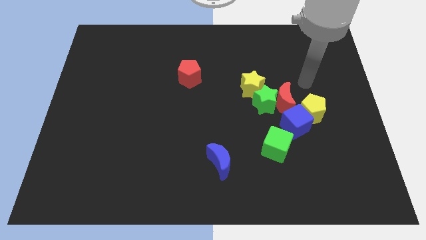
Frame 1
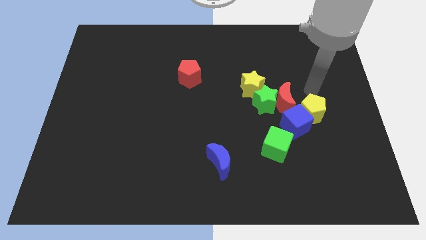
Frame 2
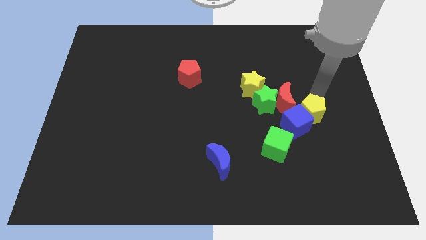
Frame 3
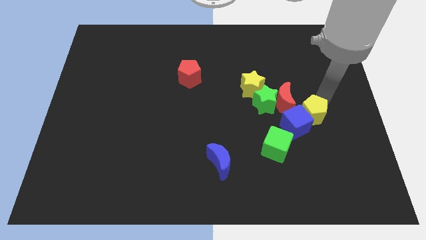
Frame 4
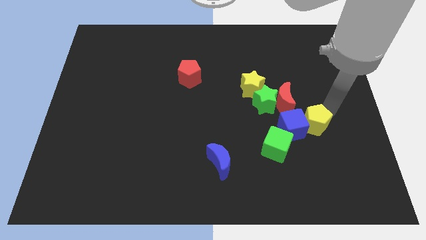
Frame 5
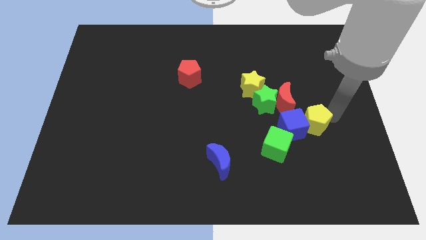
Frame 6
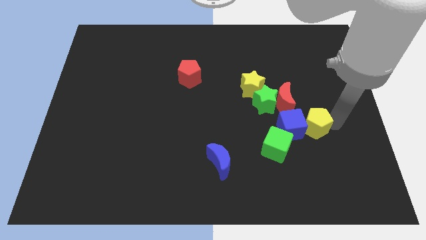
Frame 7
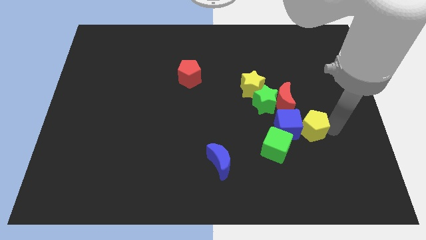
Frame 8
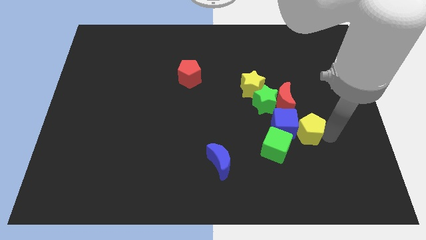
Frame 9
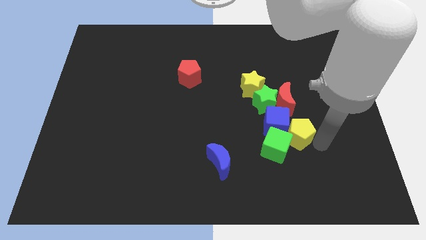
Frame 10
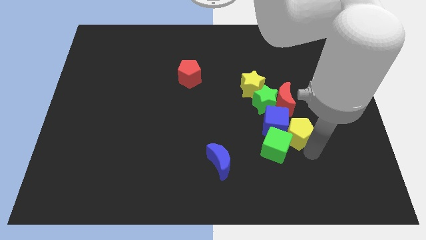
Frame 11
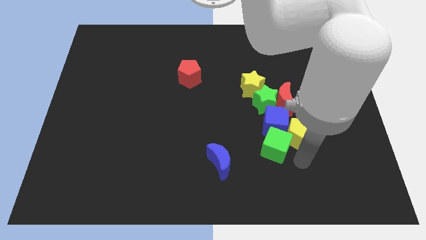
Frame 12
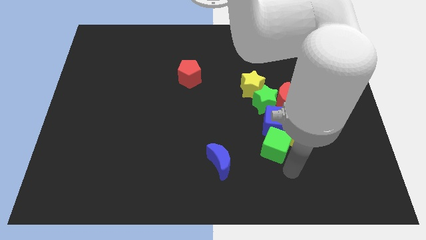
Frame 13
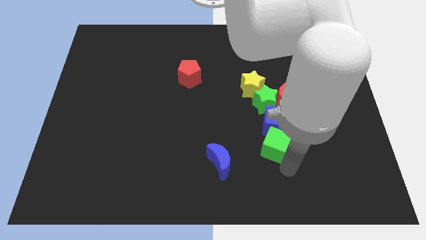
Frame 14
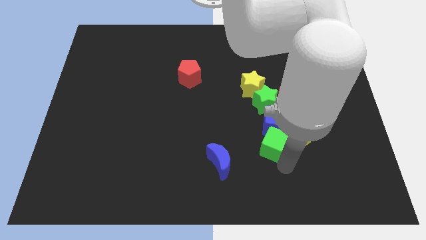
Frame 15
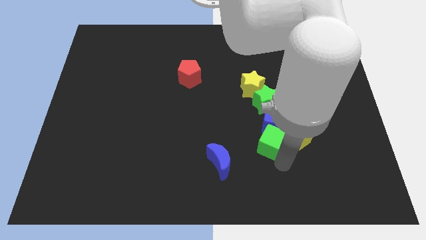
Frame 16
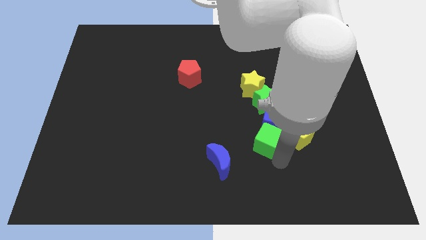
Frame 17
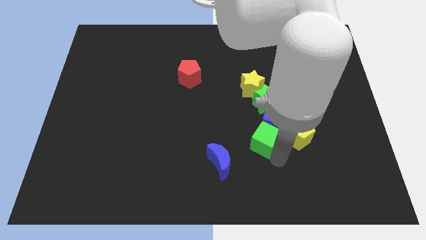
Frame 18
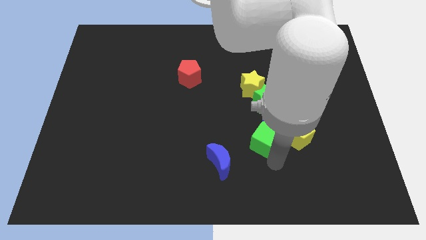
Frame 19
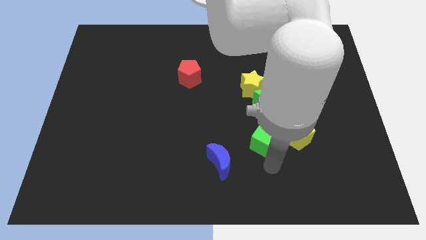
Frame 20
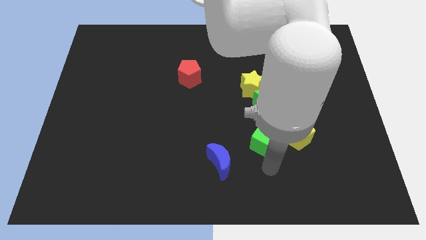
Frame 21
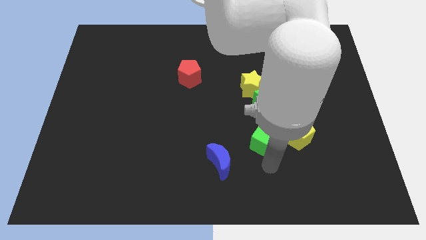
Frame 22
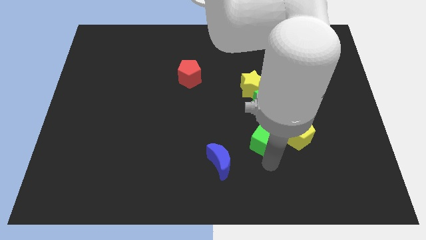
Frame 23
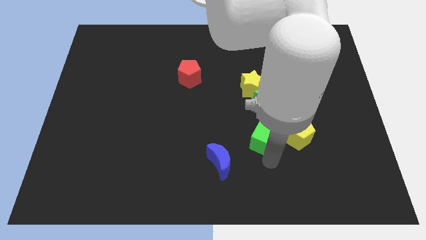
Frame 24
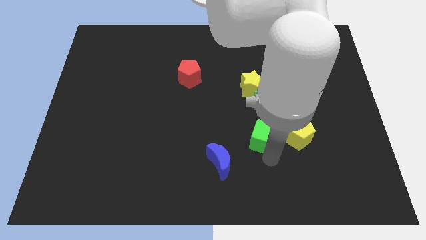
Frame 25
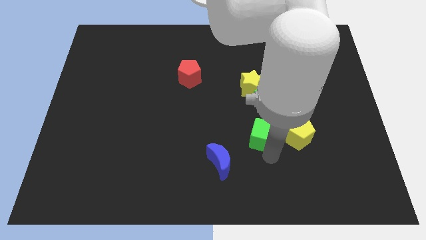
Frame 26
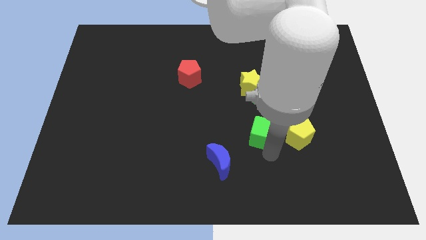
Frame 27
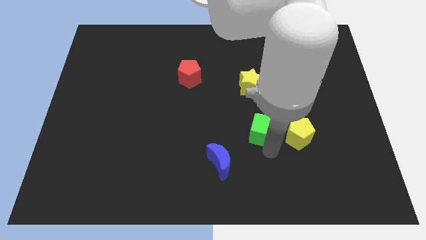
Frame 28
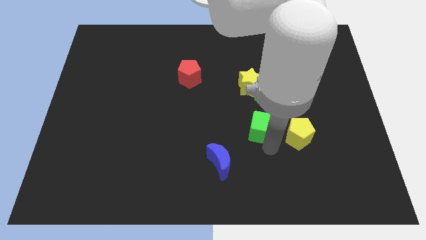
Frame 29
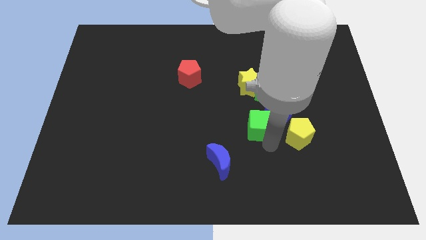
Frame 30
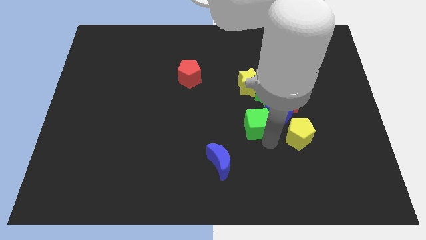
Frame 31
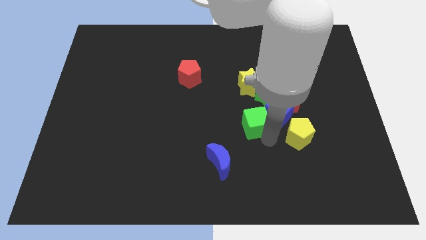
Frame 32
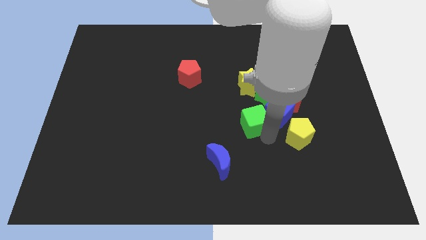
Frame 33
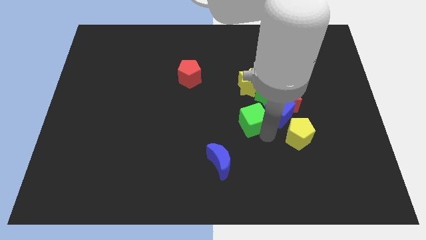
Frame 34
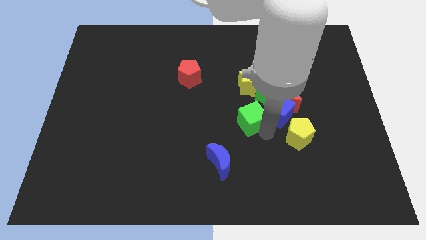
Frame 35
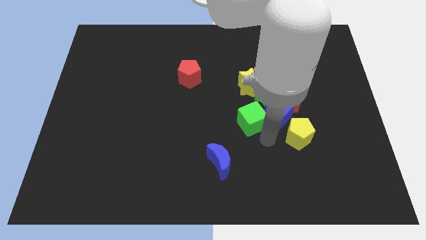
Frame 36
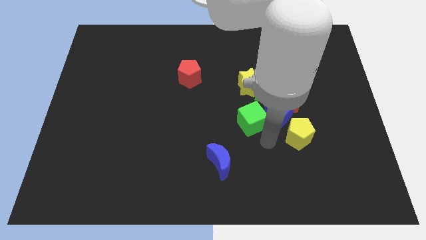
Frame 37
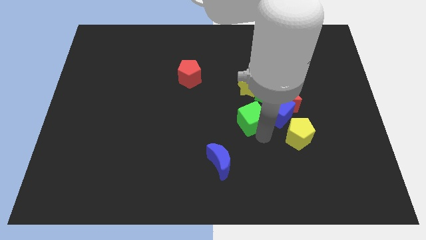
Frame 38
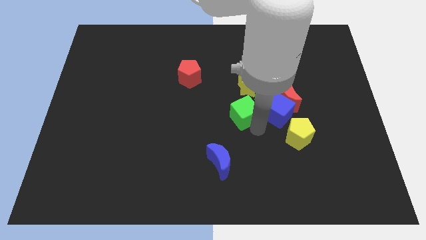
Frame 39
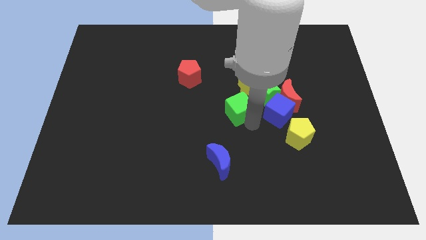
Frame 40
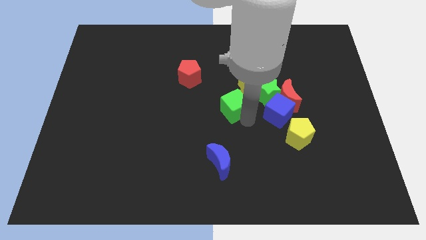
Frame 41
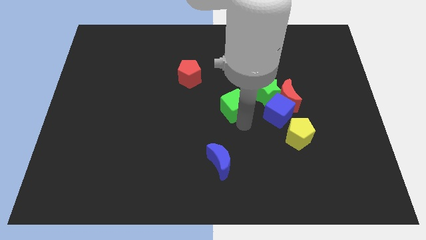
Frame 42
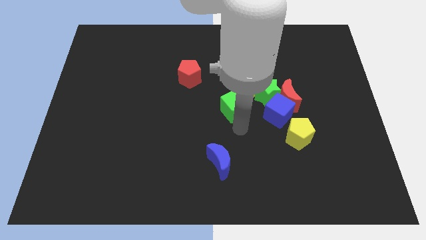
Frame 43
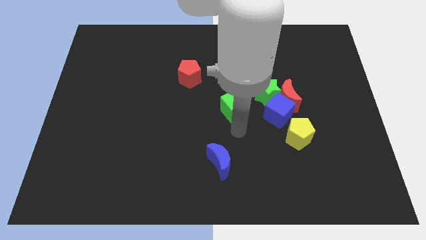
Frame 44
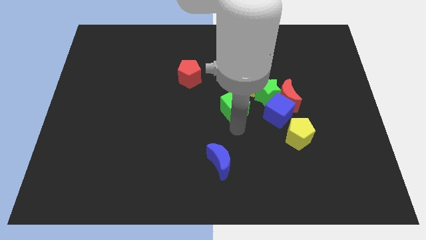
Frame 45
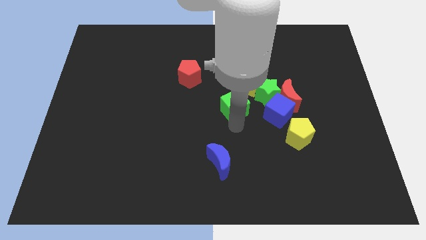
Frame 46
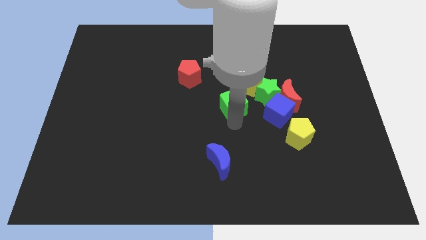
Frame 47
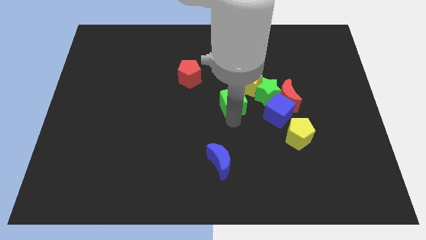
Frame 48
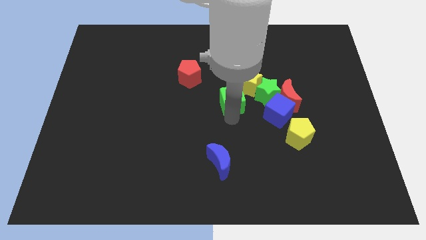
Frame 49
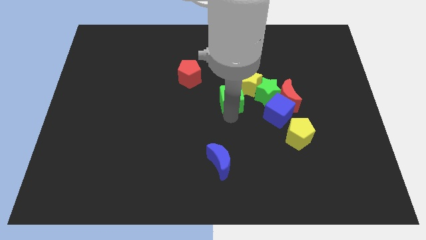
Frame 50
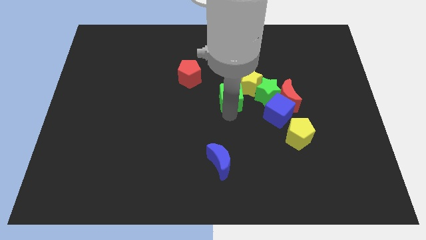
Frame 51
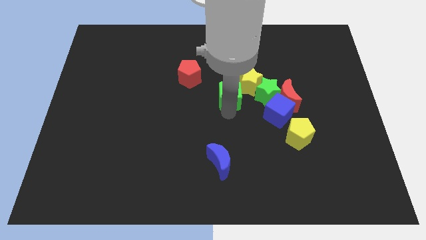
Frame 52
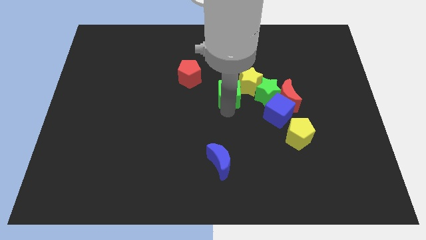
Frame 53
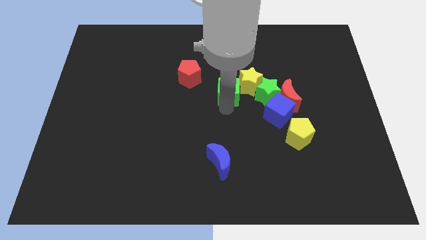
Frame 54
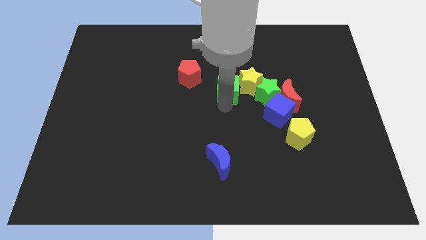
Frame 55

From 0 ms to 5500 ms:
push the green cube just right of the red pentagon

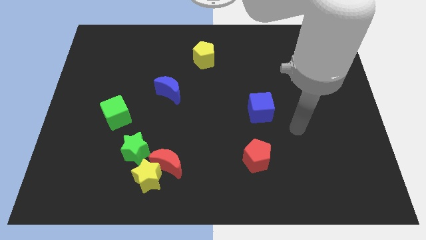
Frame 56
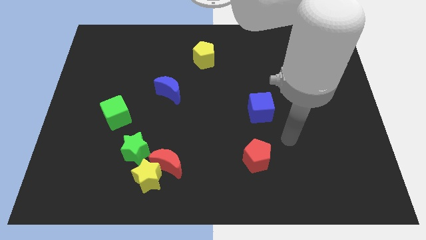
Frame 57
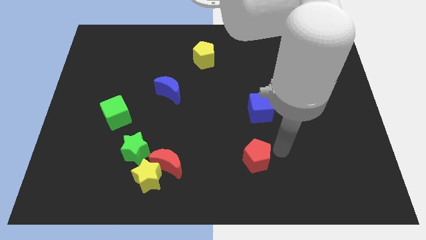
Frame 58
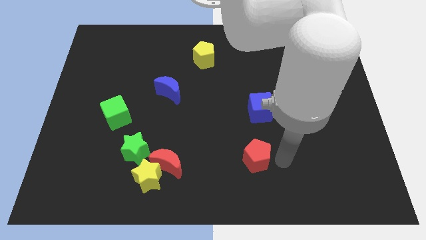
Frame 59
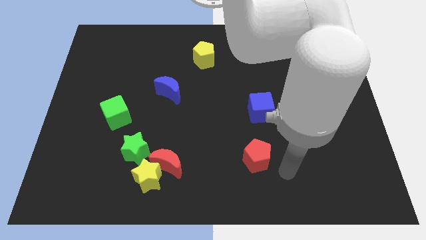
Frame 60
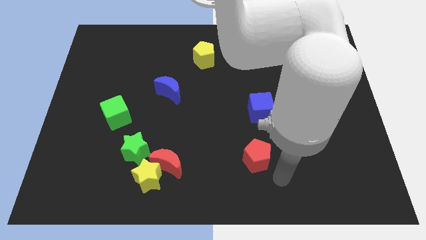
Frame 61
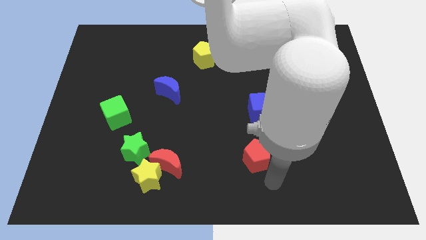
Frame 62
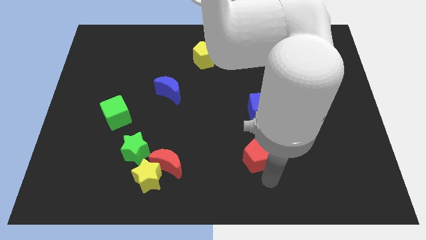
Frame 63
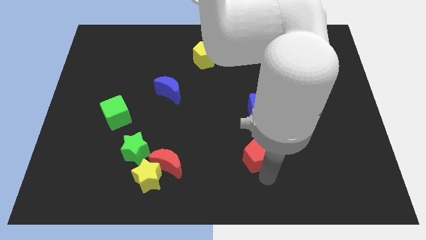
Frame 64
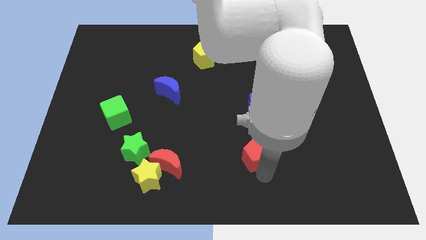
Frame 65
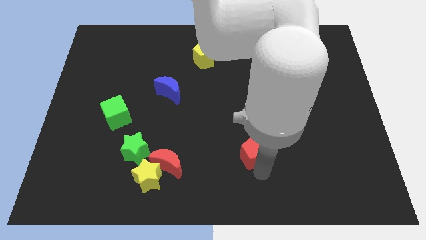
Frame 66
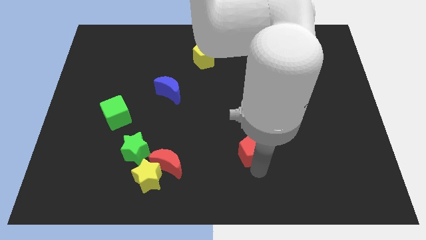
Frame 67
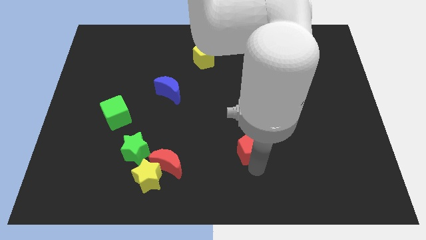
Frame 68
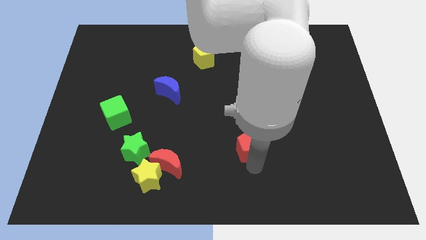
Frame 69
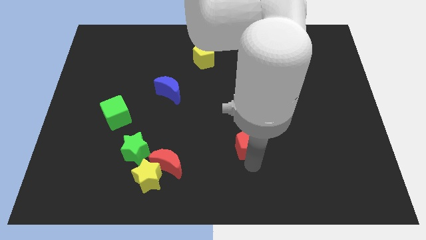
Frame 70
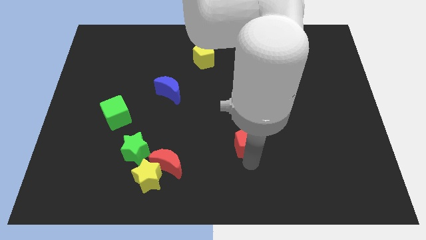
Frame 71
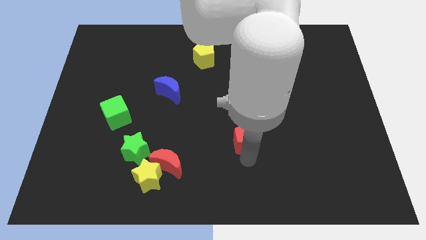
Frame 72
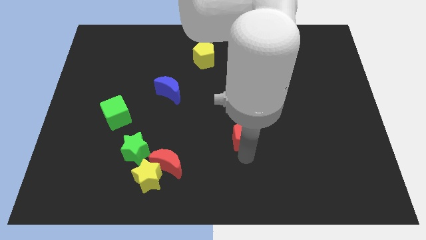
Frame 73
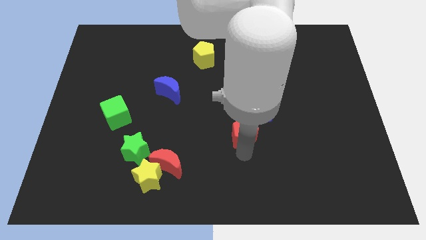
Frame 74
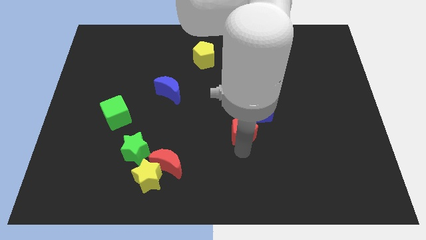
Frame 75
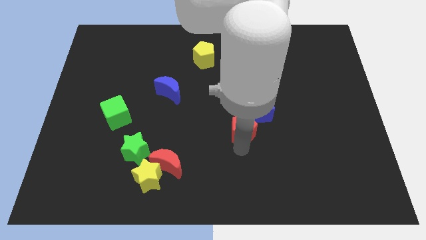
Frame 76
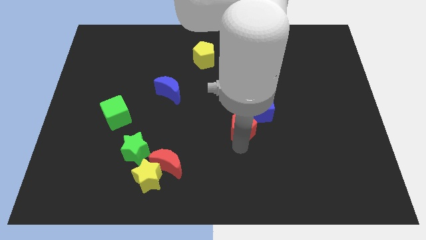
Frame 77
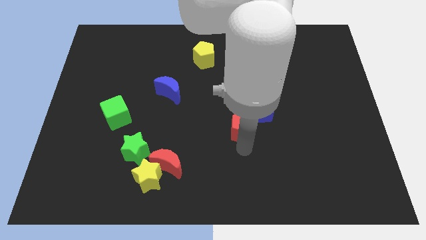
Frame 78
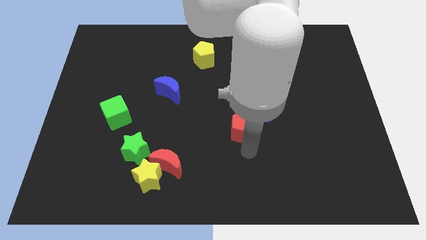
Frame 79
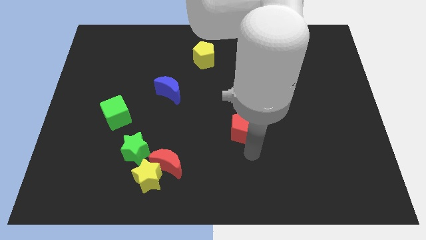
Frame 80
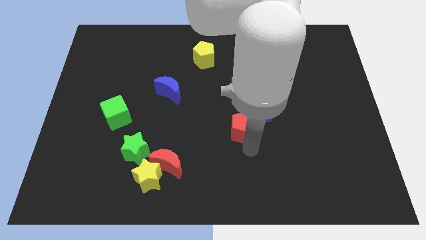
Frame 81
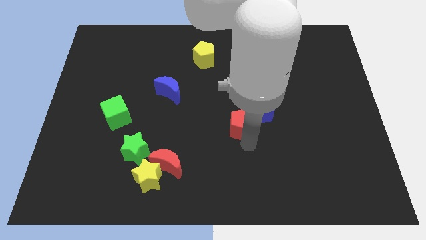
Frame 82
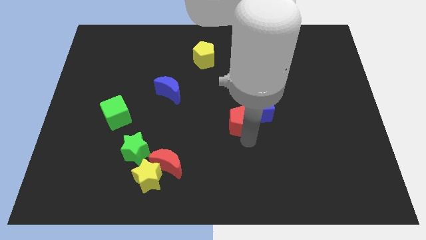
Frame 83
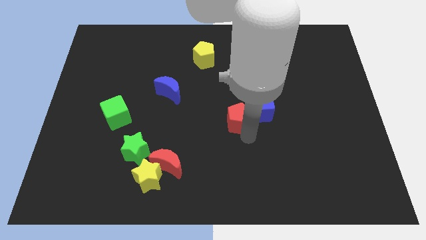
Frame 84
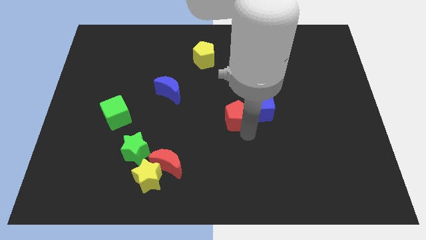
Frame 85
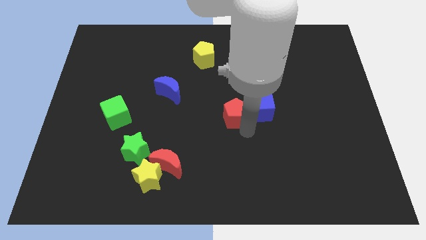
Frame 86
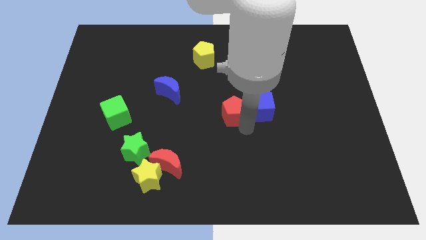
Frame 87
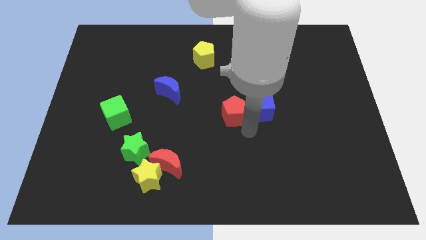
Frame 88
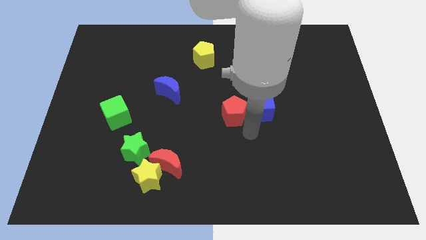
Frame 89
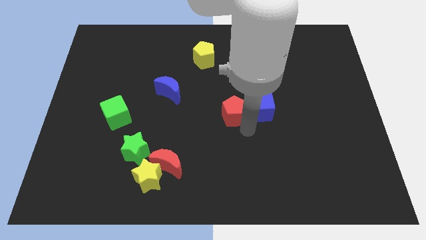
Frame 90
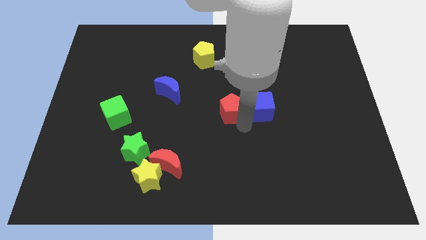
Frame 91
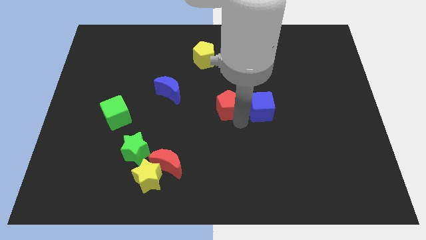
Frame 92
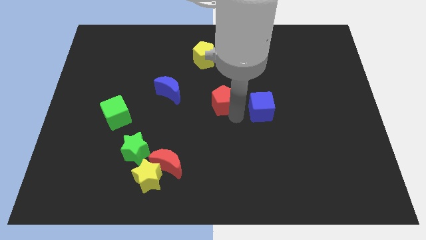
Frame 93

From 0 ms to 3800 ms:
put the red pentagon just right of the blue moon
